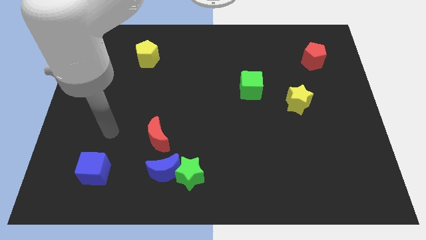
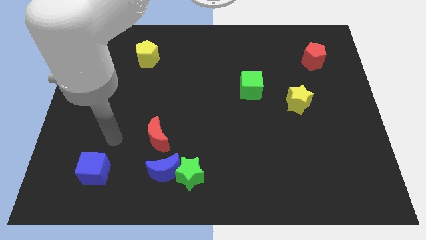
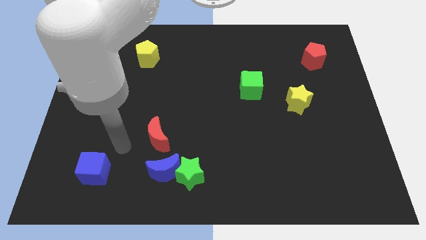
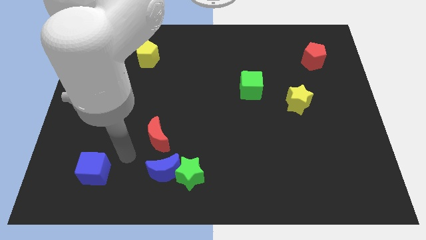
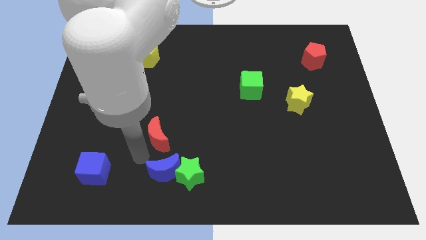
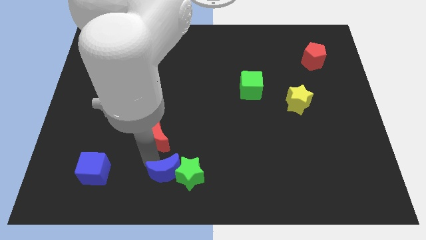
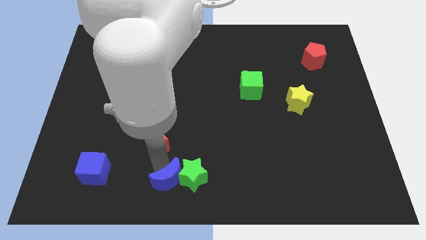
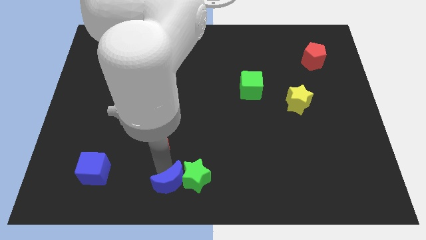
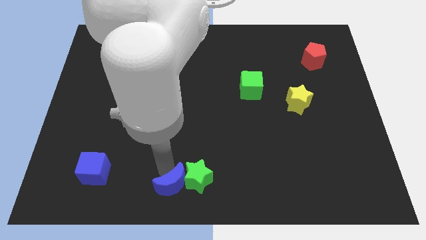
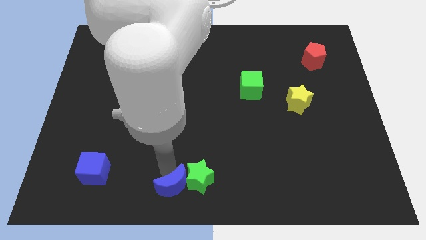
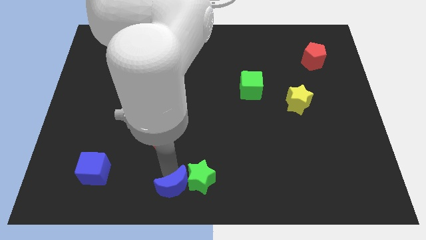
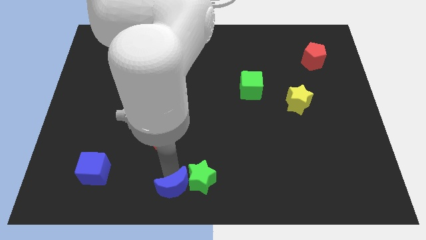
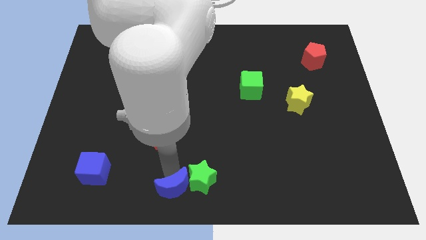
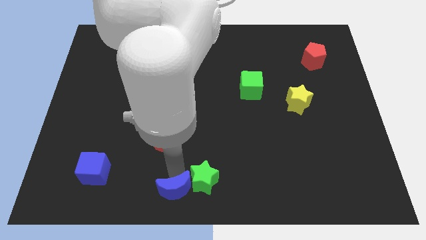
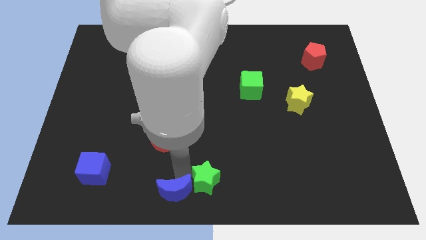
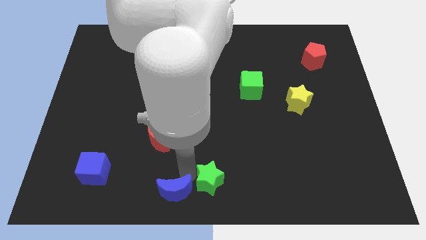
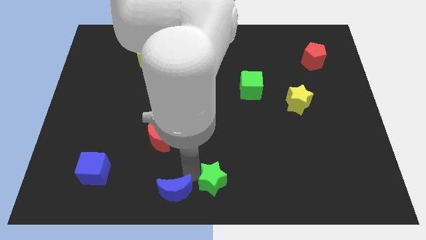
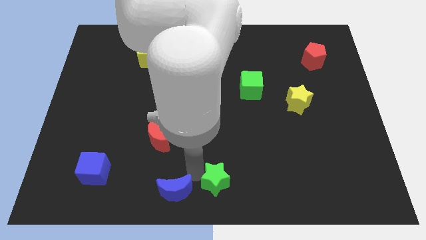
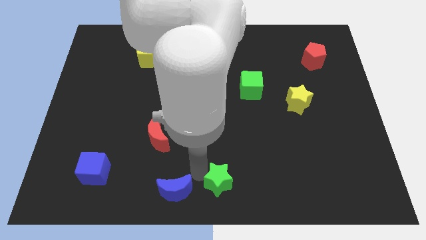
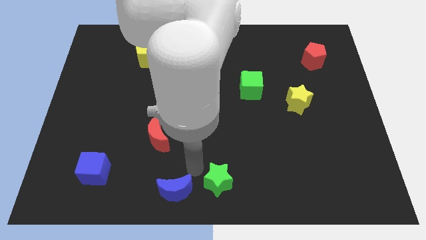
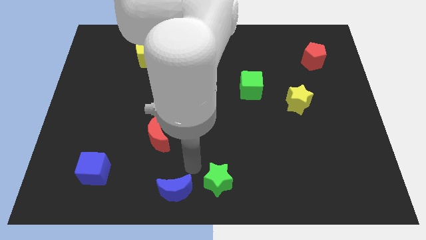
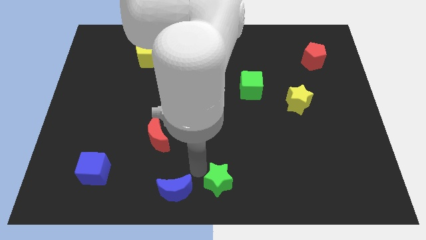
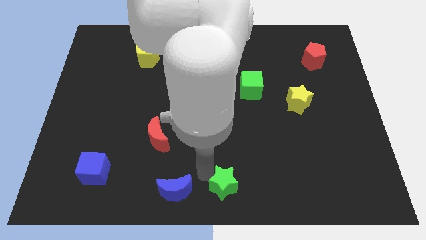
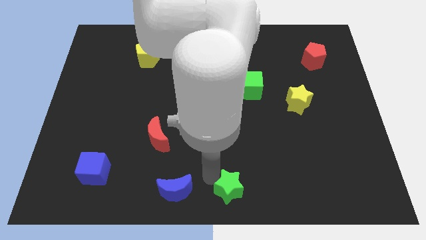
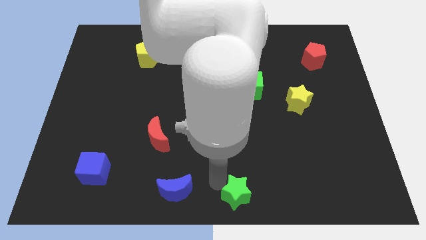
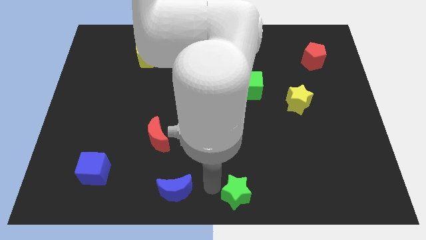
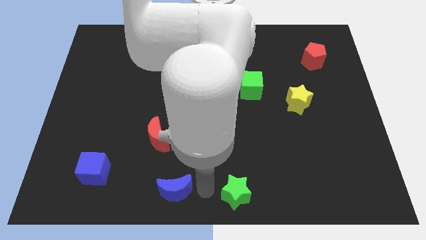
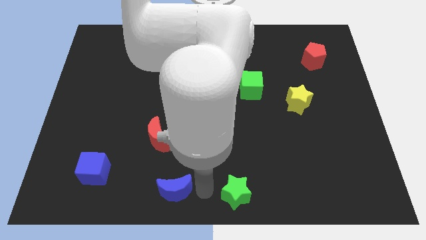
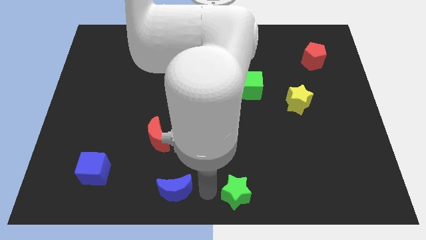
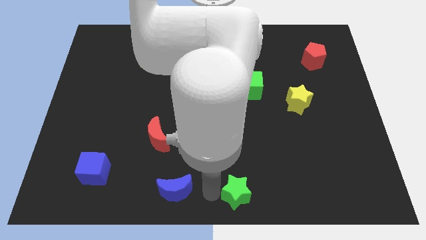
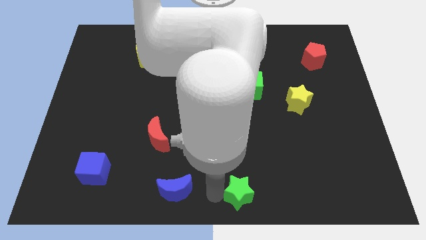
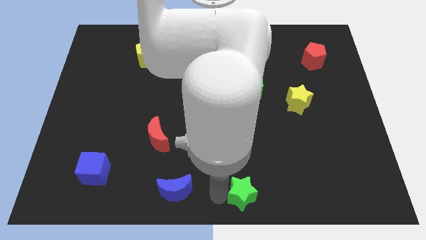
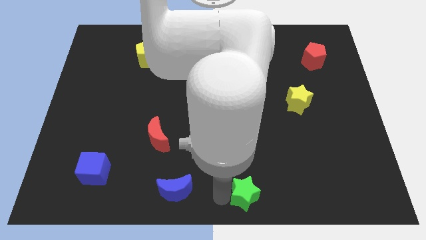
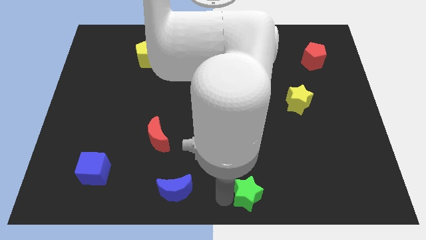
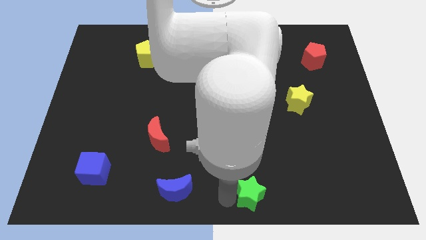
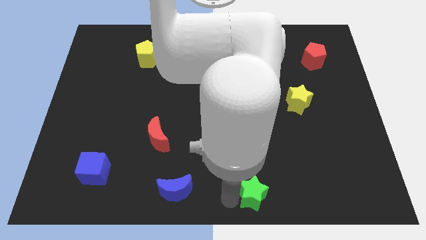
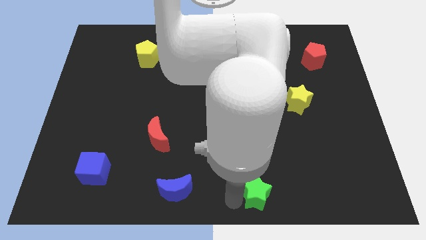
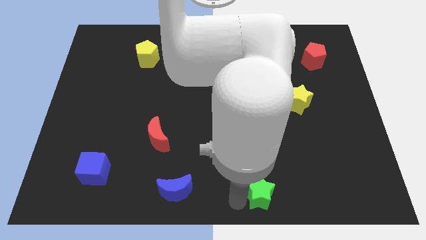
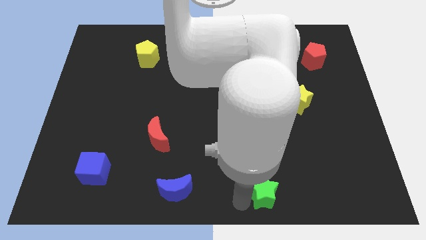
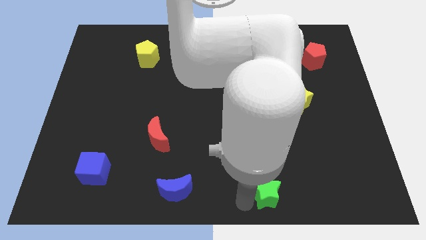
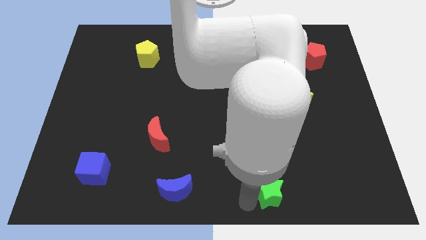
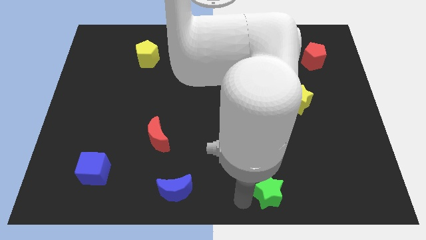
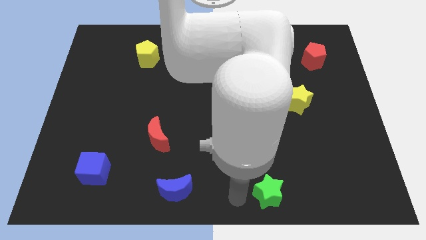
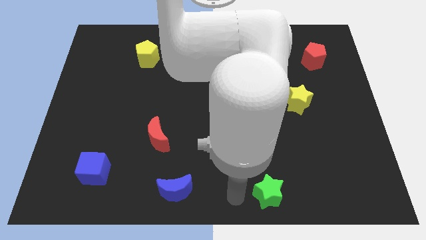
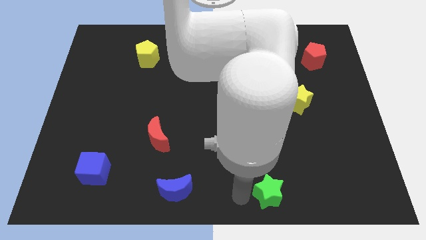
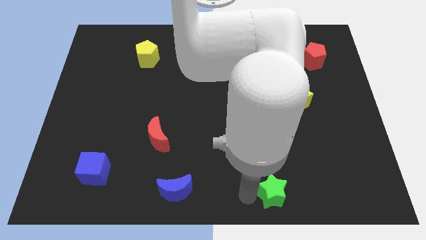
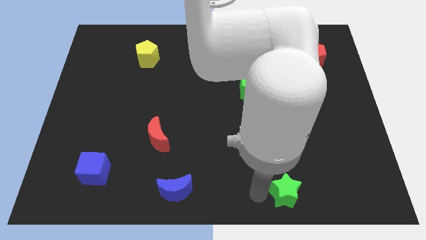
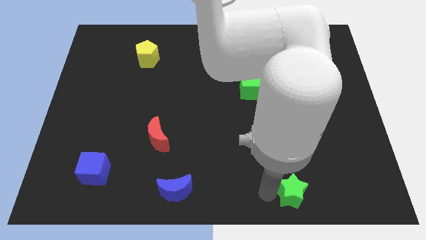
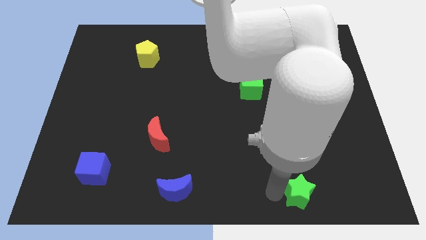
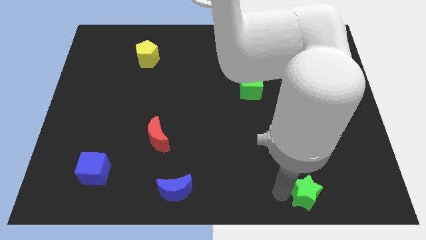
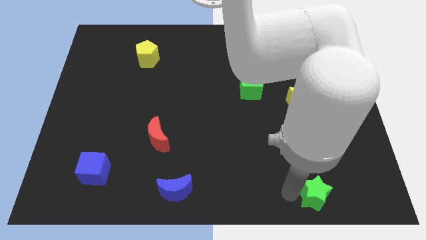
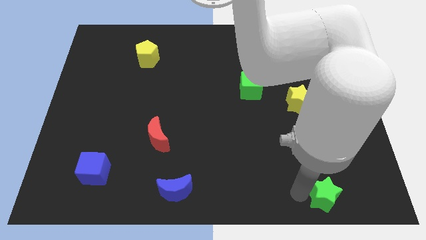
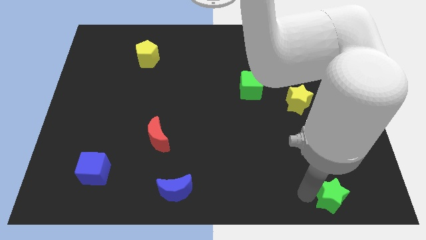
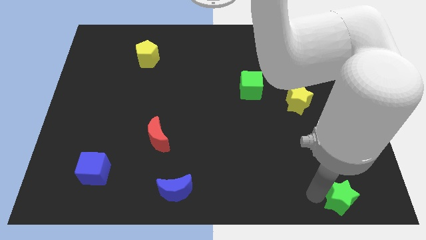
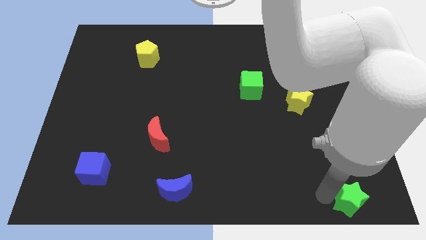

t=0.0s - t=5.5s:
slide the green star to the bottom right

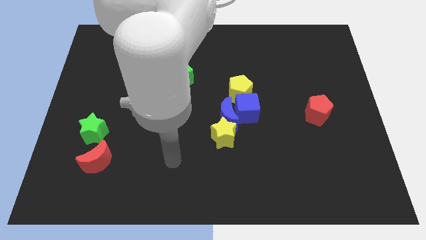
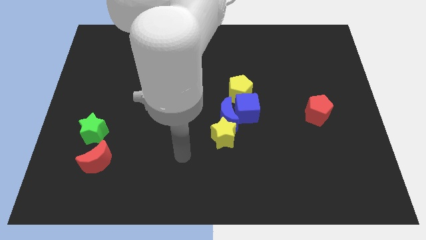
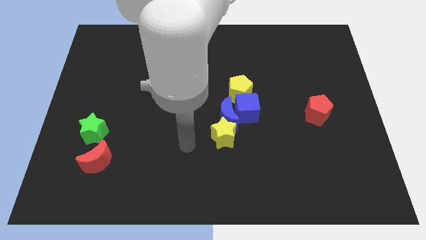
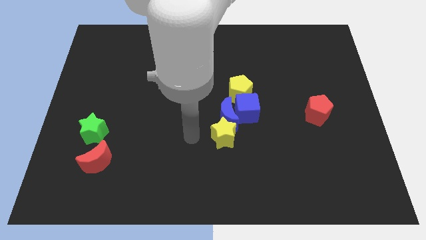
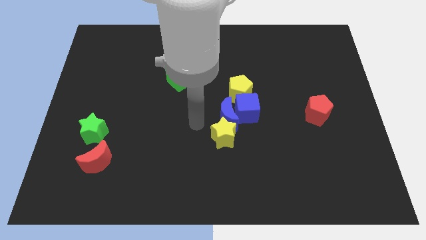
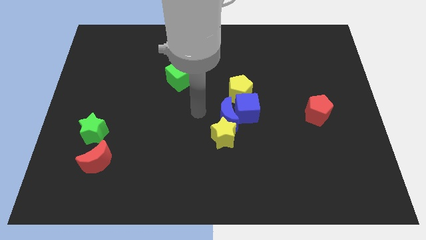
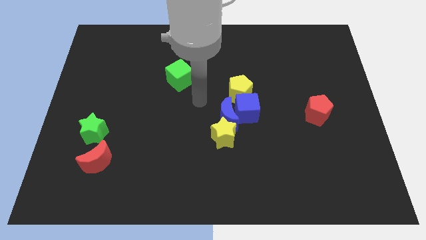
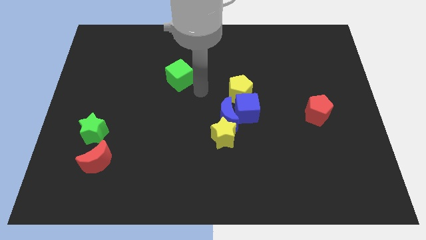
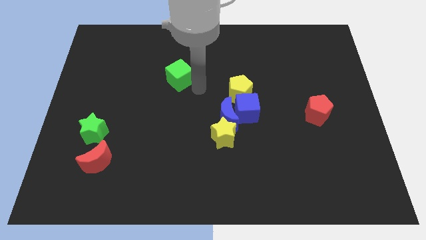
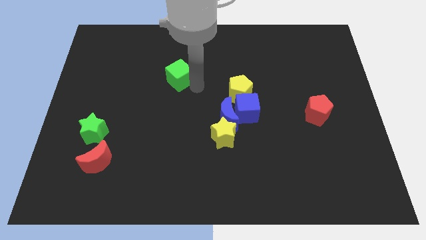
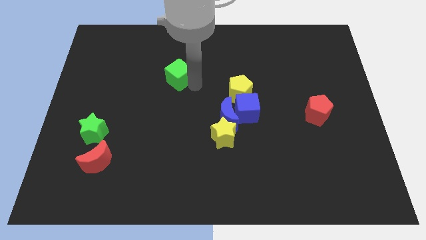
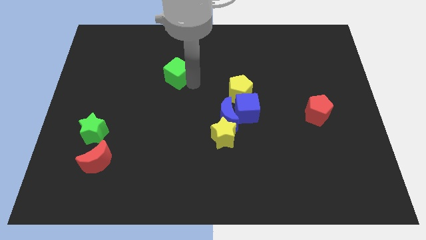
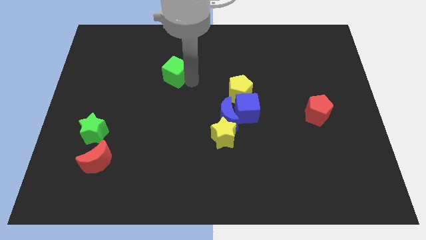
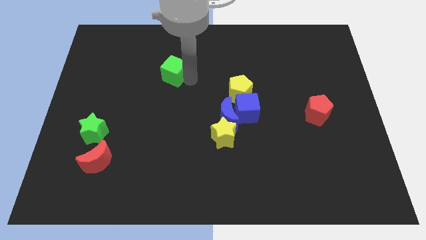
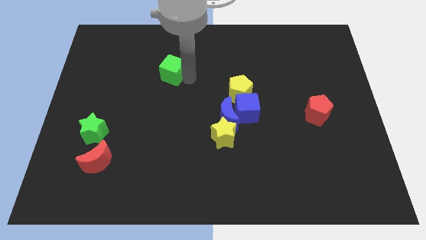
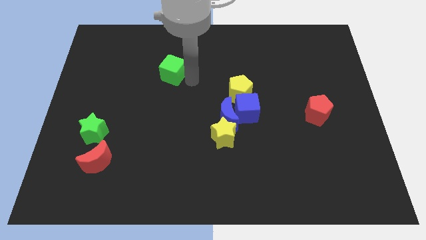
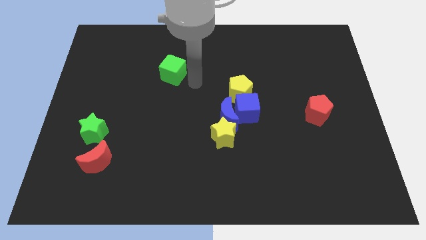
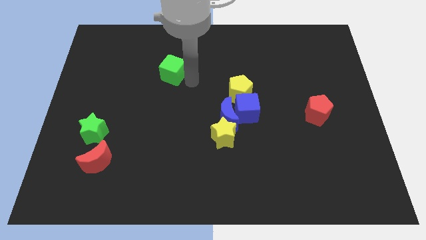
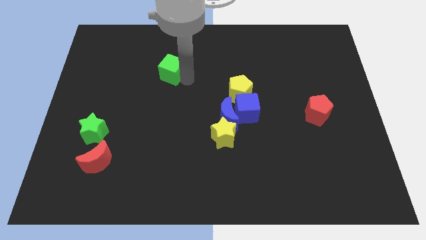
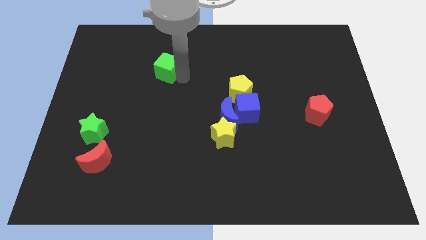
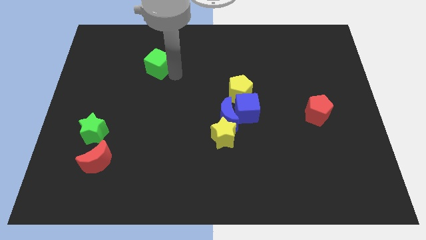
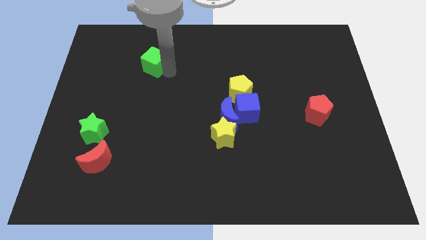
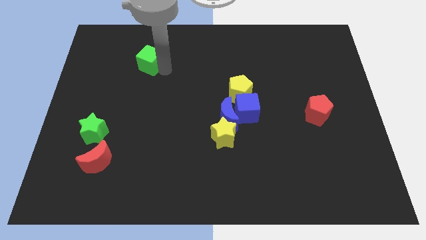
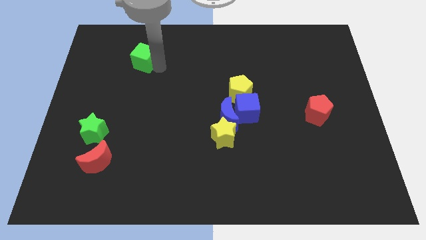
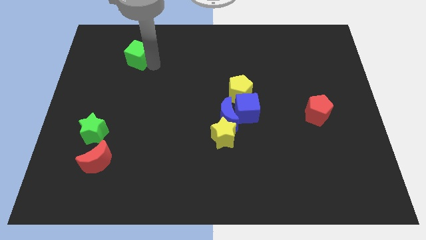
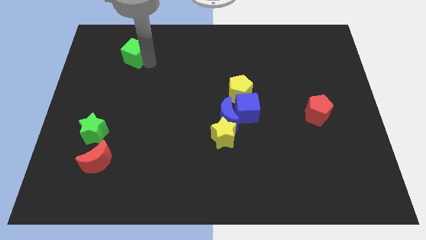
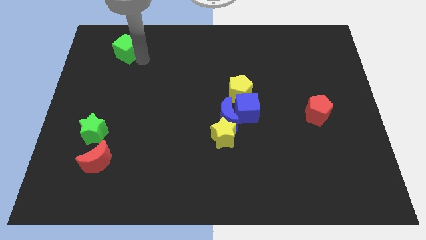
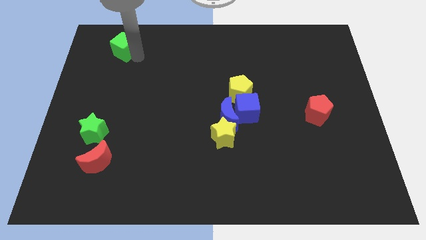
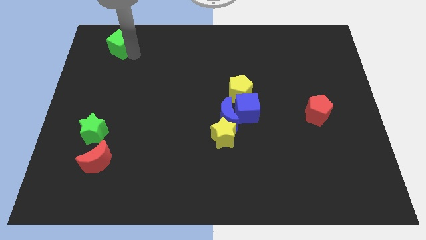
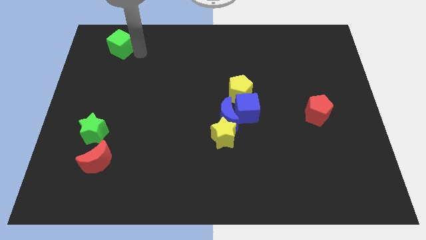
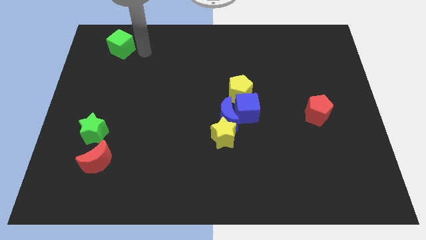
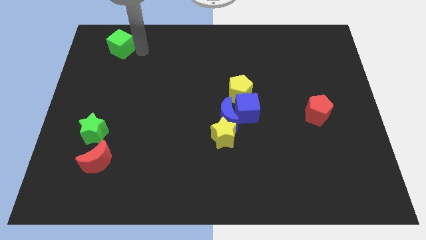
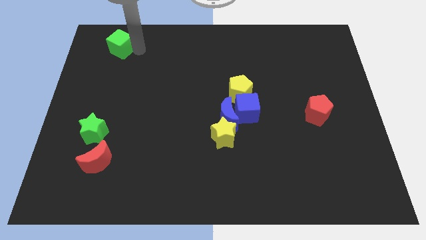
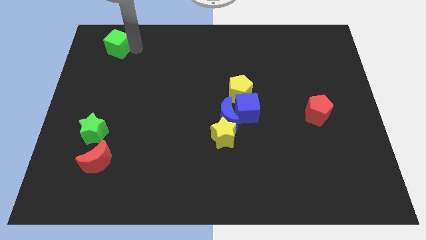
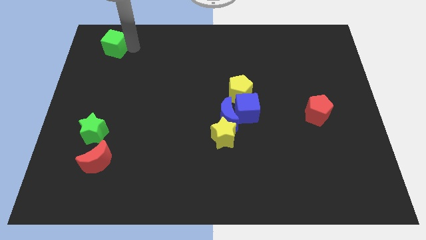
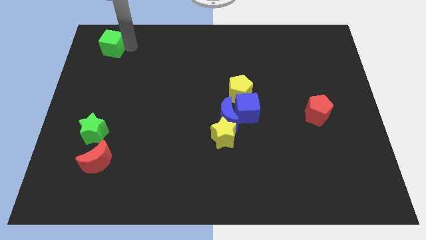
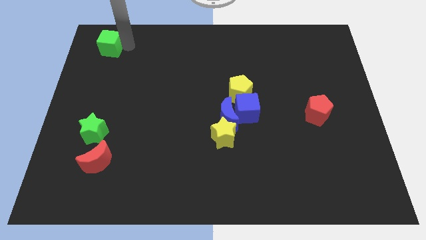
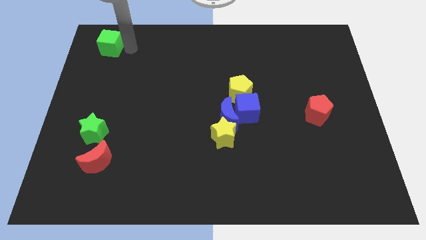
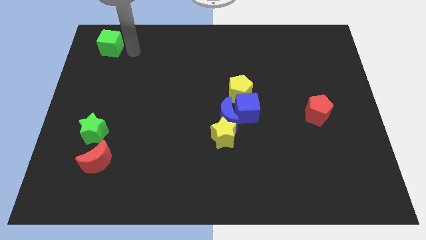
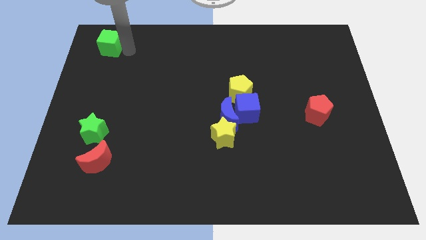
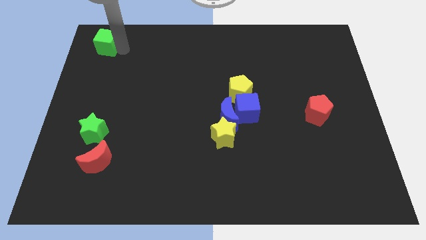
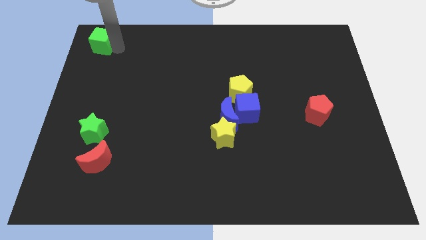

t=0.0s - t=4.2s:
slide the green cube to the upper left corner
